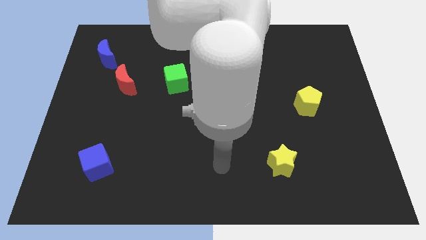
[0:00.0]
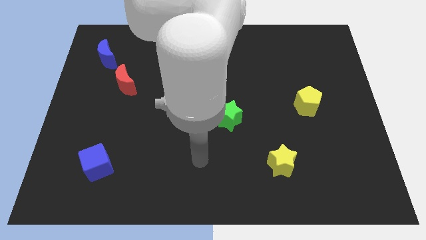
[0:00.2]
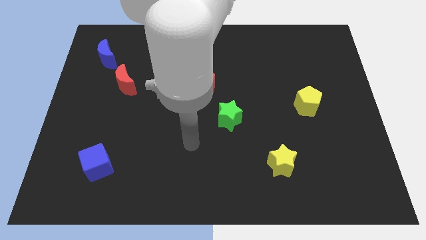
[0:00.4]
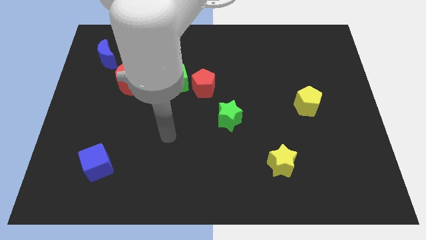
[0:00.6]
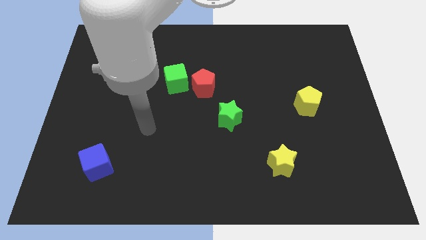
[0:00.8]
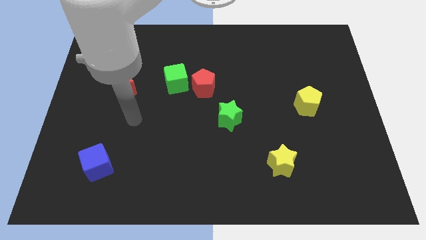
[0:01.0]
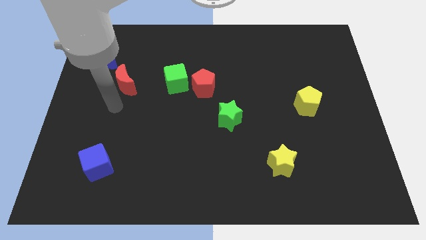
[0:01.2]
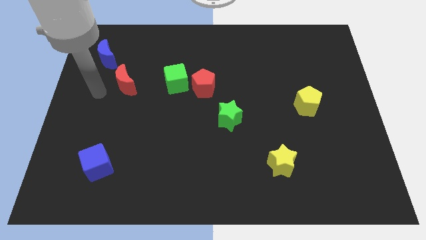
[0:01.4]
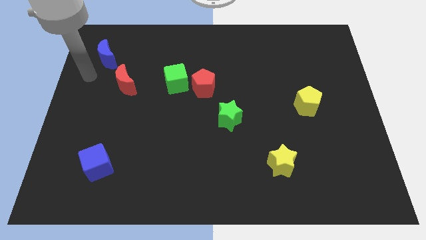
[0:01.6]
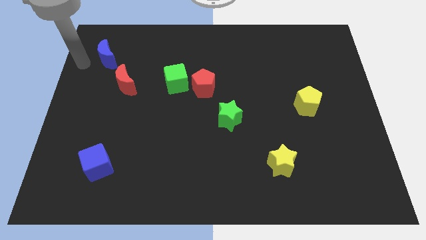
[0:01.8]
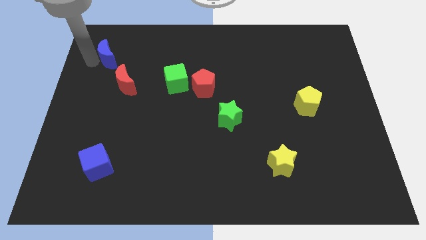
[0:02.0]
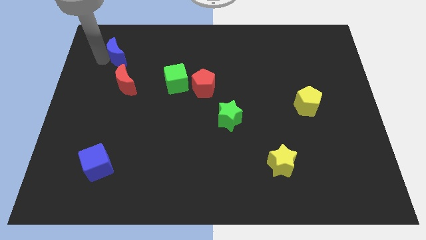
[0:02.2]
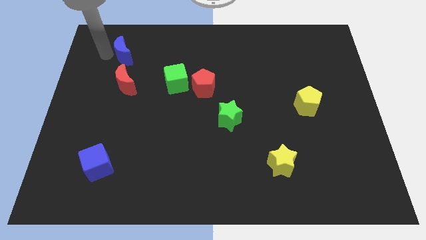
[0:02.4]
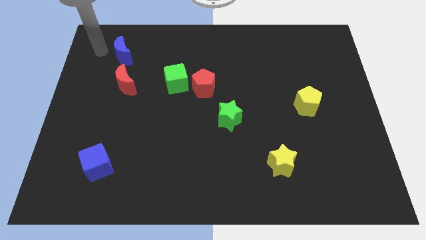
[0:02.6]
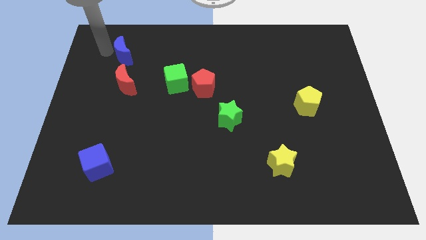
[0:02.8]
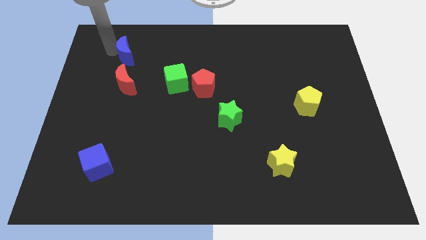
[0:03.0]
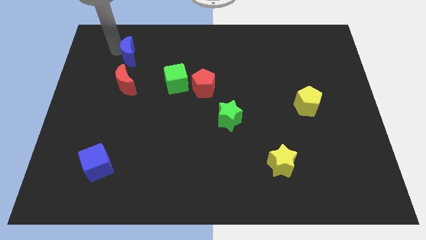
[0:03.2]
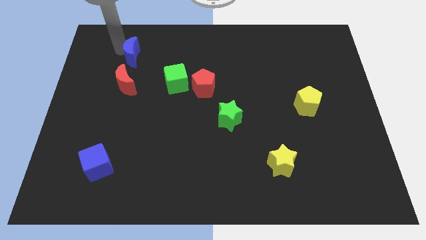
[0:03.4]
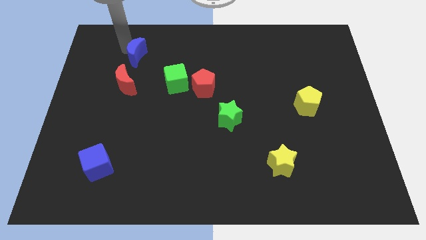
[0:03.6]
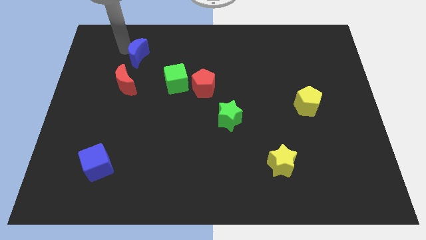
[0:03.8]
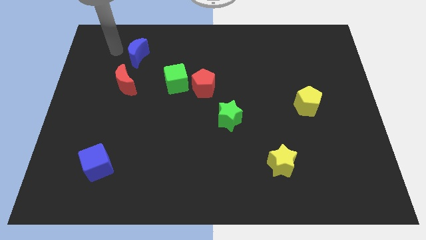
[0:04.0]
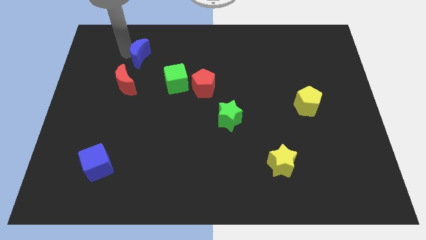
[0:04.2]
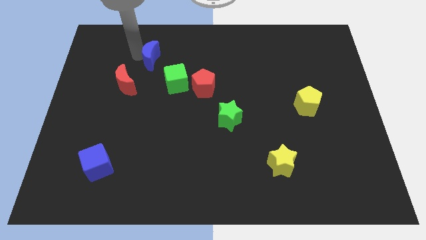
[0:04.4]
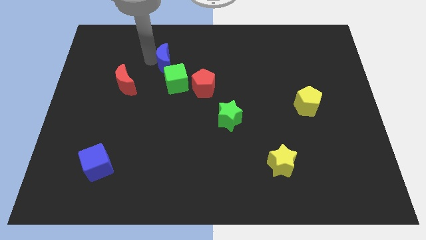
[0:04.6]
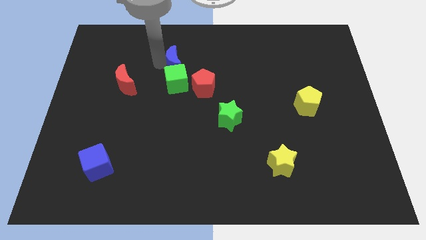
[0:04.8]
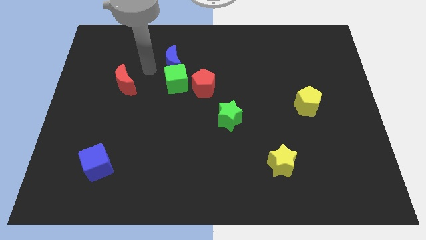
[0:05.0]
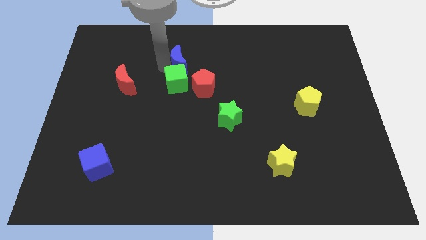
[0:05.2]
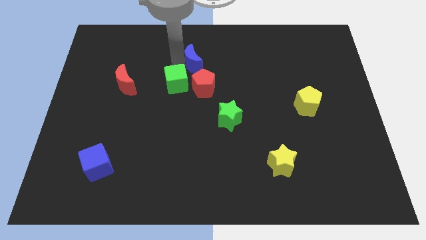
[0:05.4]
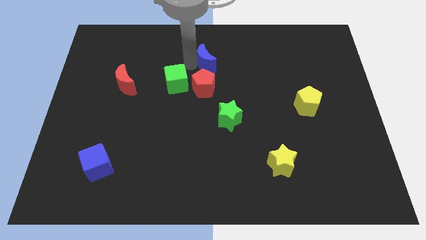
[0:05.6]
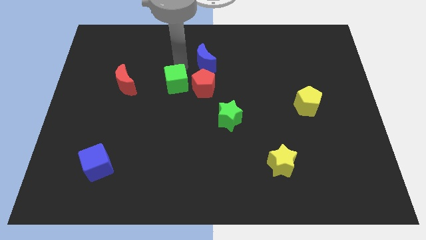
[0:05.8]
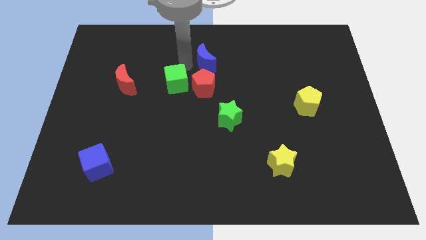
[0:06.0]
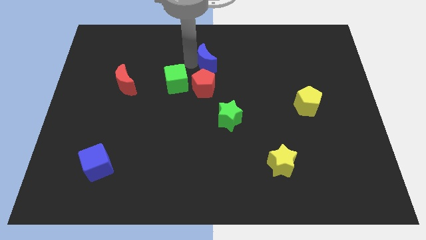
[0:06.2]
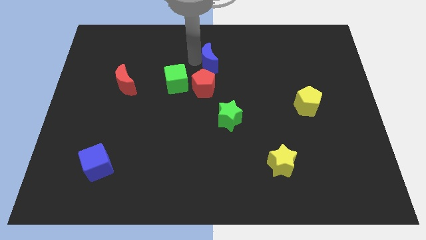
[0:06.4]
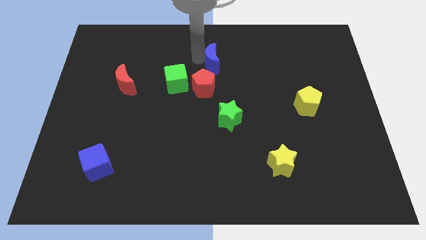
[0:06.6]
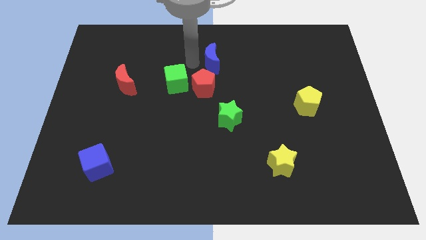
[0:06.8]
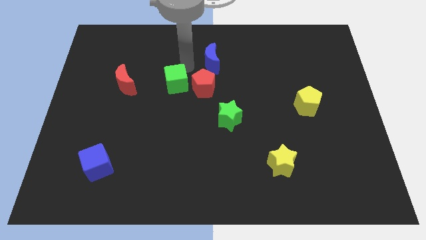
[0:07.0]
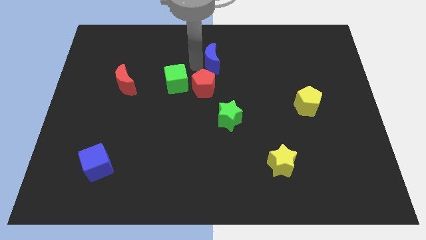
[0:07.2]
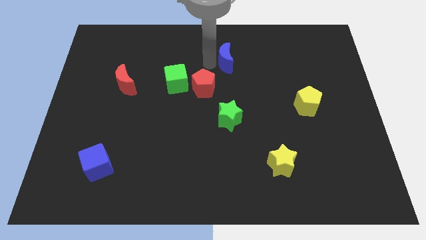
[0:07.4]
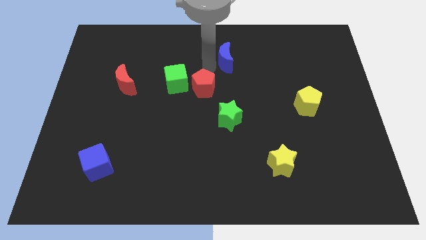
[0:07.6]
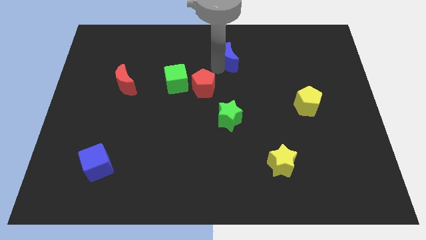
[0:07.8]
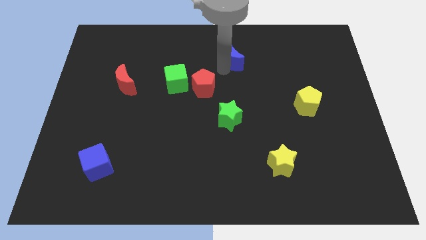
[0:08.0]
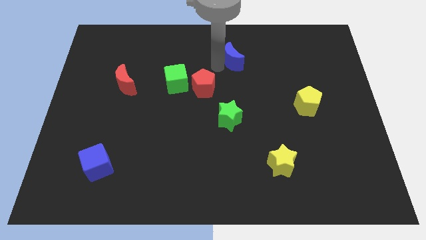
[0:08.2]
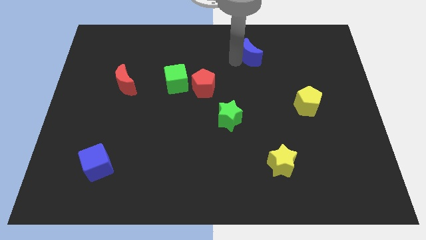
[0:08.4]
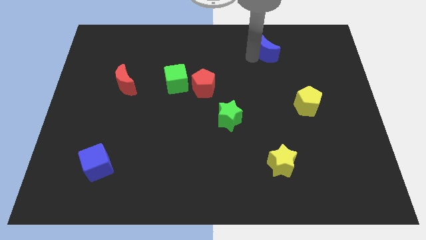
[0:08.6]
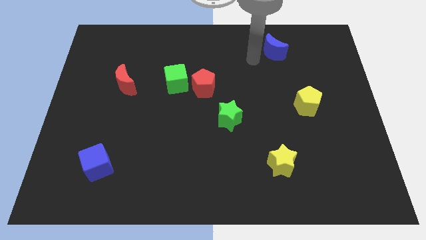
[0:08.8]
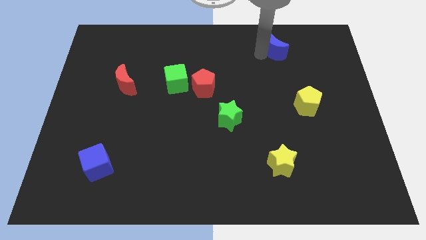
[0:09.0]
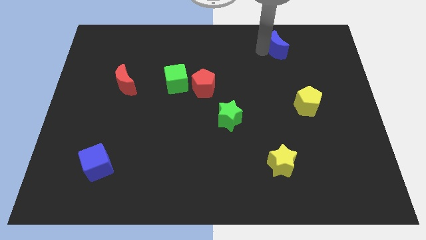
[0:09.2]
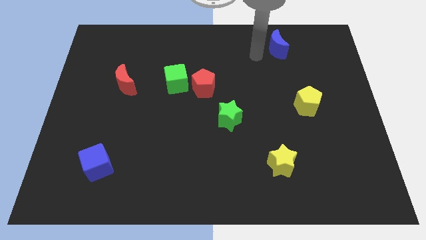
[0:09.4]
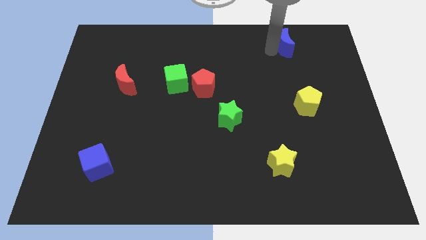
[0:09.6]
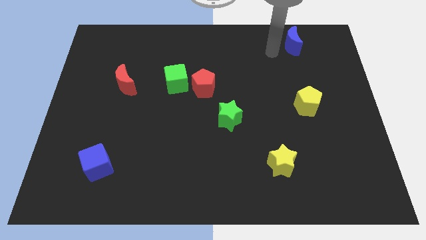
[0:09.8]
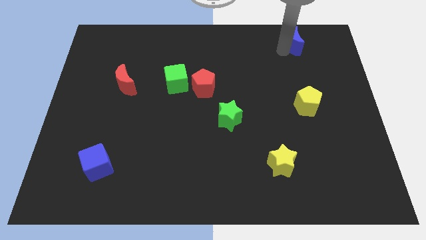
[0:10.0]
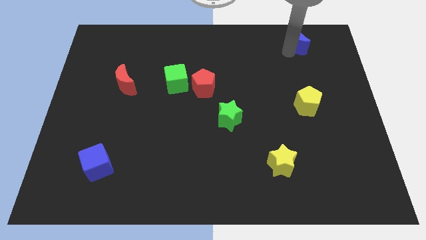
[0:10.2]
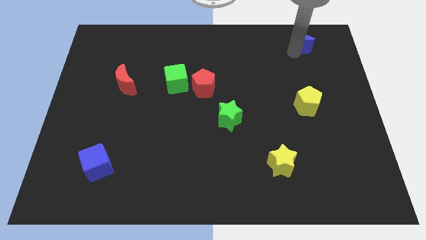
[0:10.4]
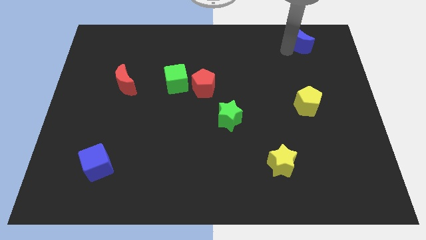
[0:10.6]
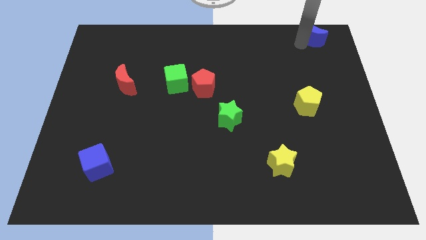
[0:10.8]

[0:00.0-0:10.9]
slide the blue moon to the top right
